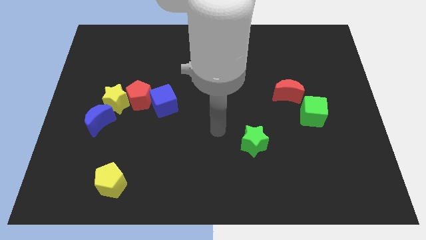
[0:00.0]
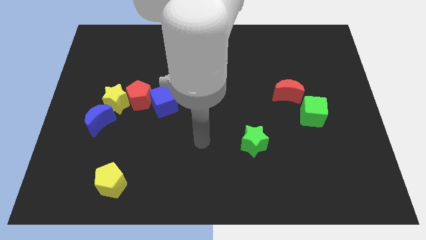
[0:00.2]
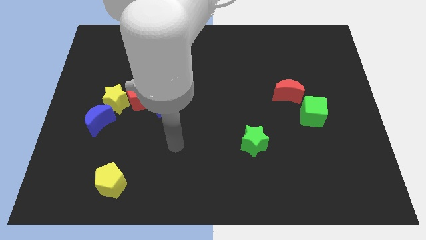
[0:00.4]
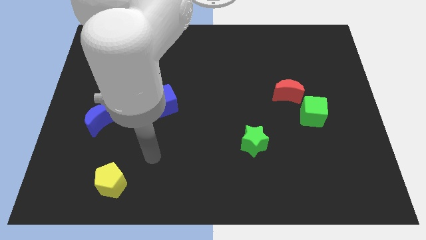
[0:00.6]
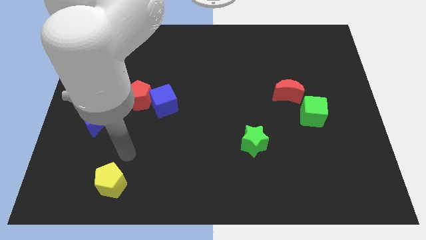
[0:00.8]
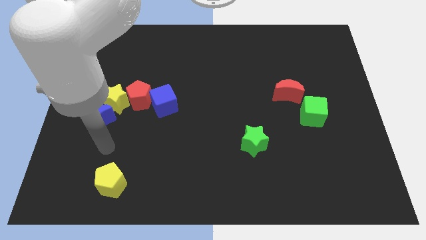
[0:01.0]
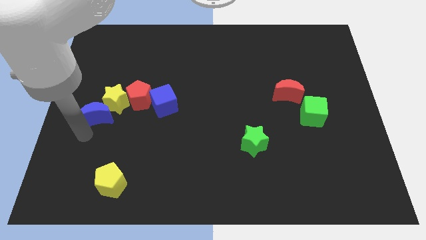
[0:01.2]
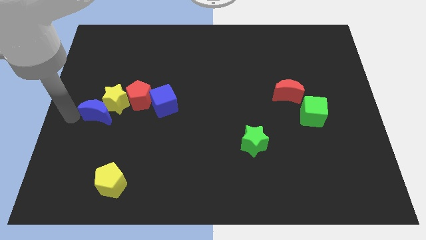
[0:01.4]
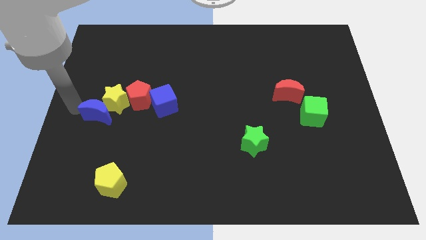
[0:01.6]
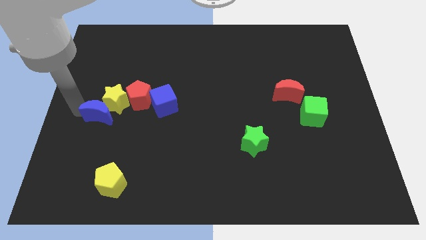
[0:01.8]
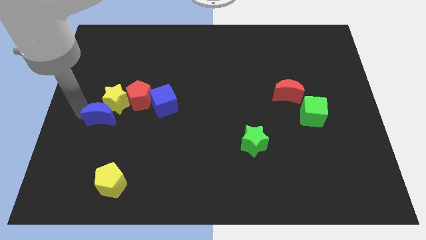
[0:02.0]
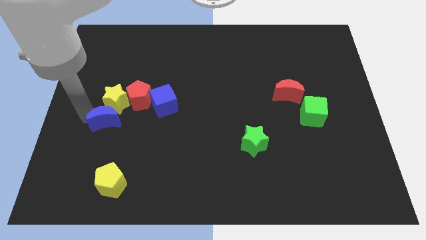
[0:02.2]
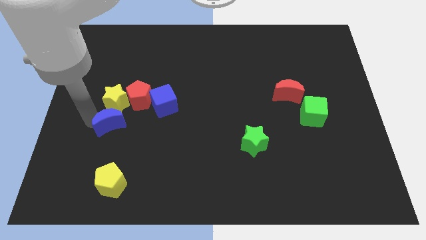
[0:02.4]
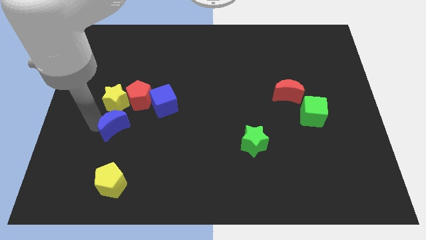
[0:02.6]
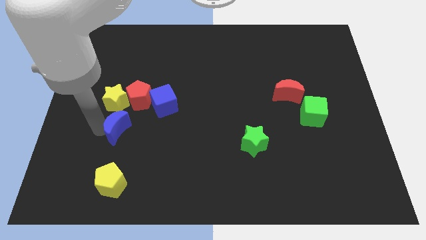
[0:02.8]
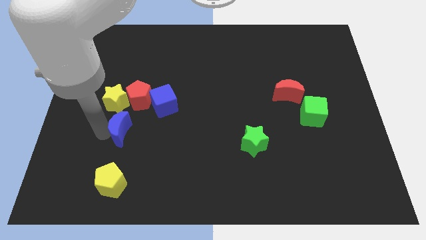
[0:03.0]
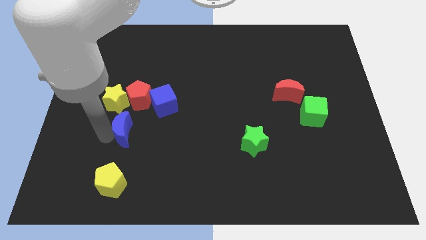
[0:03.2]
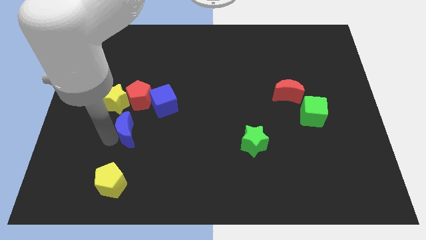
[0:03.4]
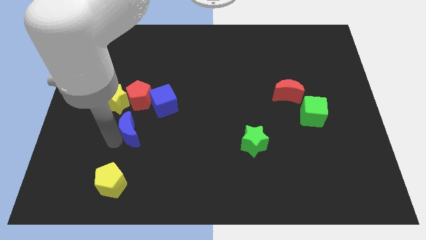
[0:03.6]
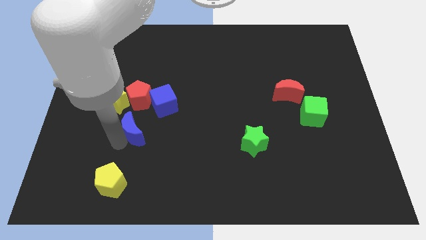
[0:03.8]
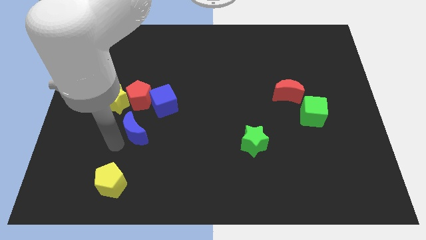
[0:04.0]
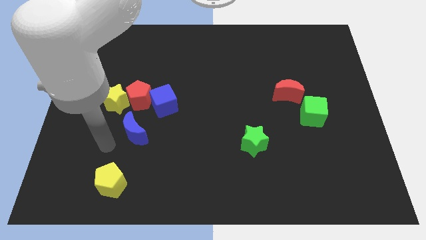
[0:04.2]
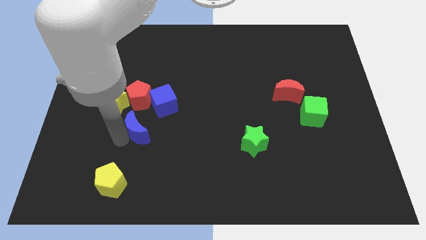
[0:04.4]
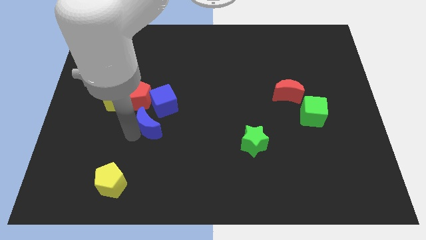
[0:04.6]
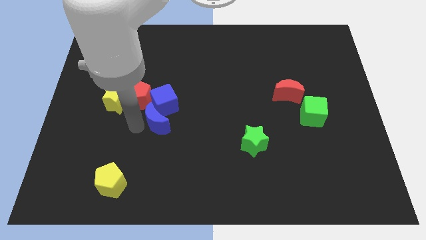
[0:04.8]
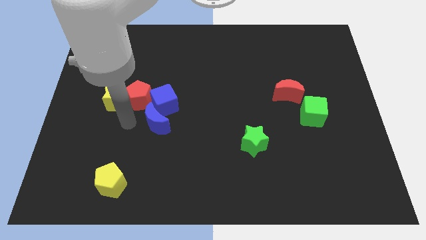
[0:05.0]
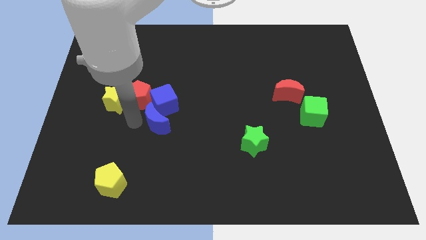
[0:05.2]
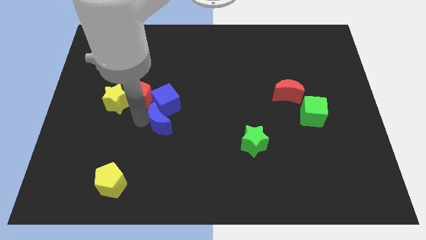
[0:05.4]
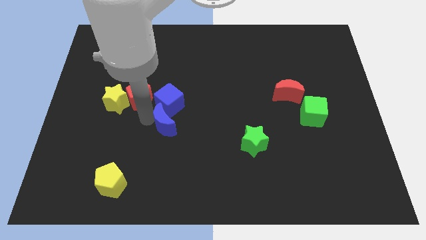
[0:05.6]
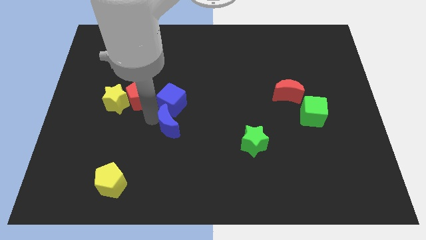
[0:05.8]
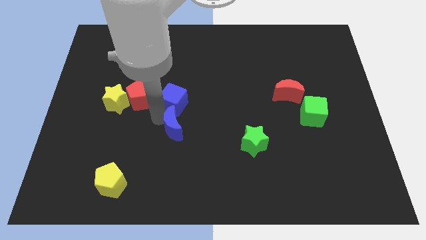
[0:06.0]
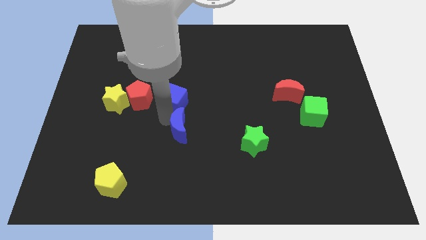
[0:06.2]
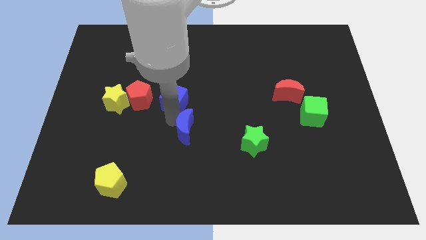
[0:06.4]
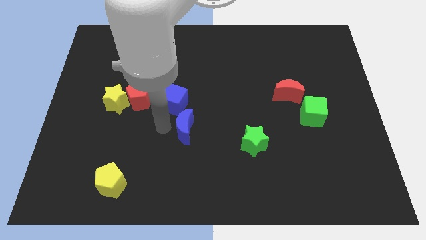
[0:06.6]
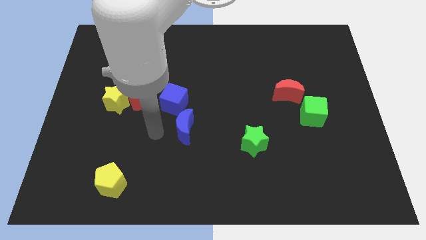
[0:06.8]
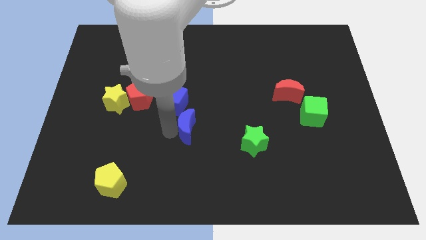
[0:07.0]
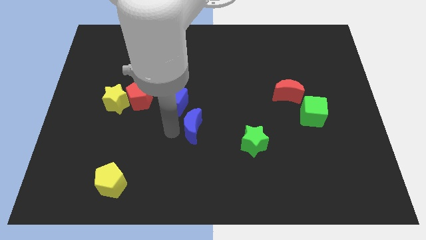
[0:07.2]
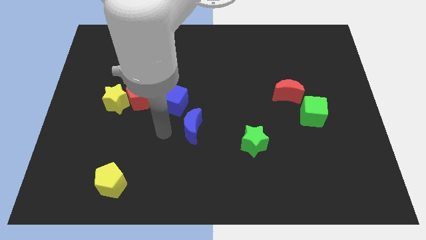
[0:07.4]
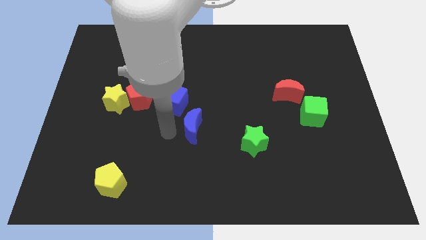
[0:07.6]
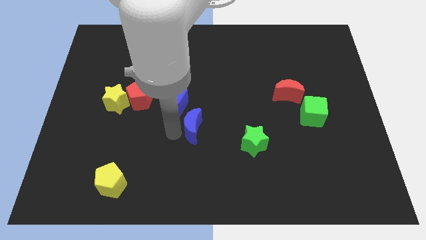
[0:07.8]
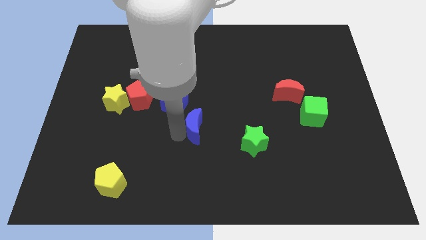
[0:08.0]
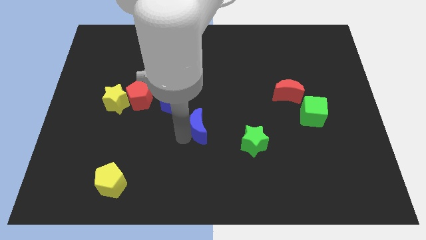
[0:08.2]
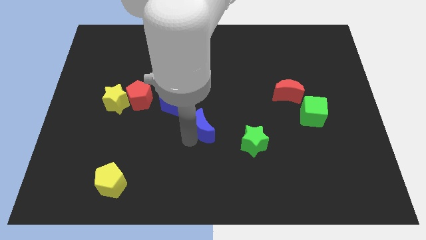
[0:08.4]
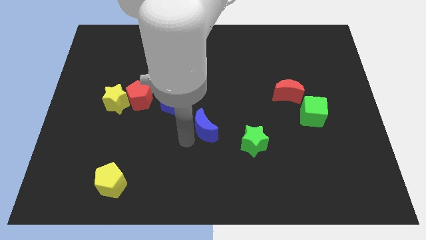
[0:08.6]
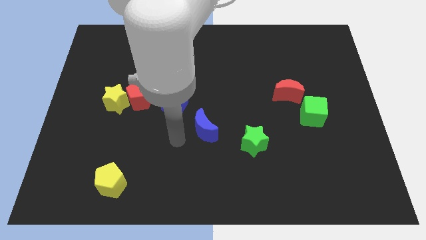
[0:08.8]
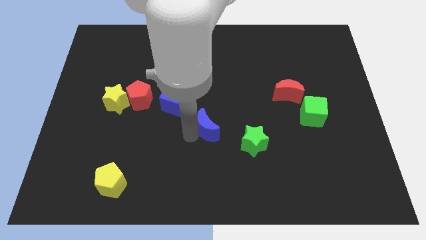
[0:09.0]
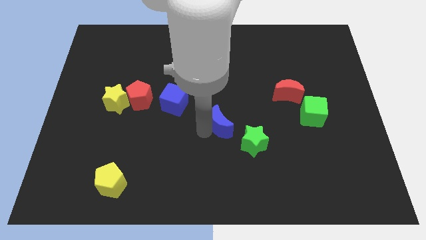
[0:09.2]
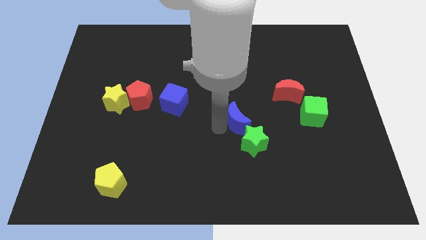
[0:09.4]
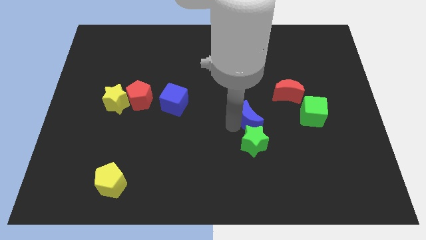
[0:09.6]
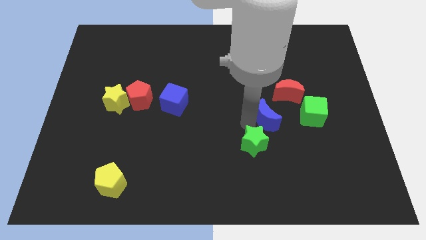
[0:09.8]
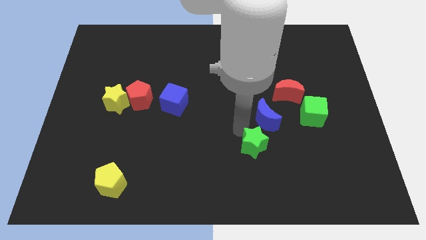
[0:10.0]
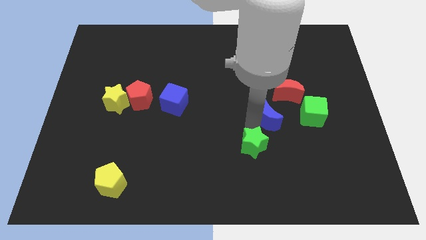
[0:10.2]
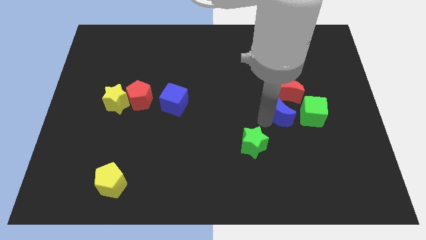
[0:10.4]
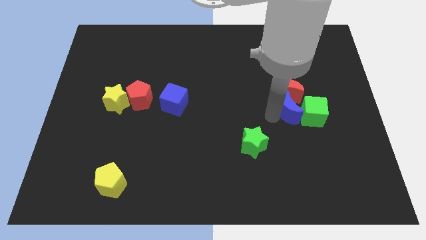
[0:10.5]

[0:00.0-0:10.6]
push the blue moon close to the green cube

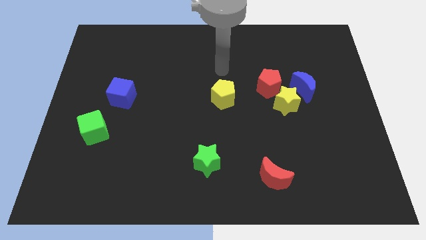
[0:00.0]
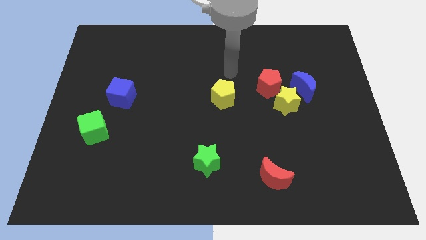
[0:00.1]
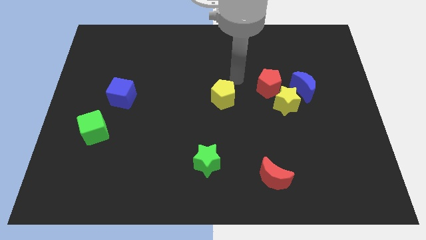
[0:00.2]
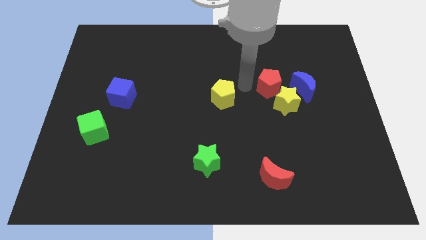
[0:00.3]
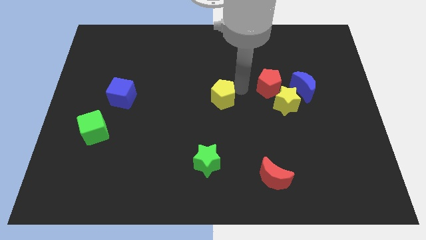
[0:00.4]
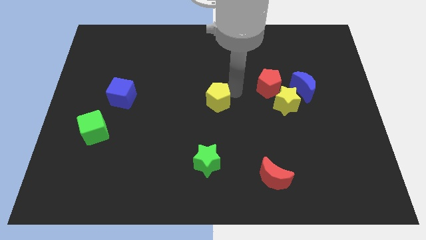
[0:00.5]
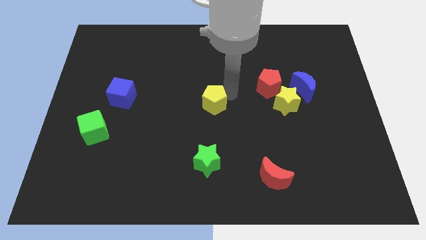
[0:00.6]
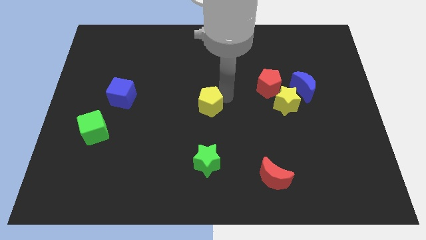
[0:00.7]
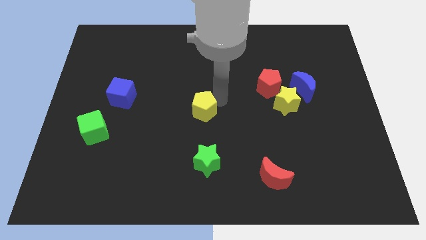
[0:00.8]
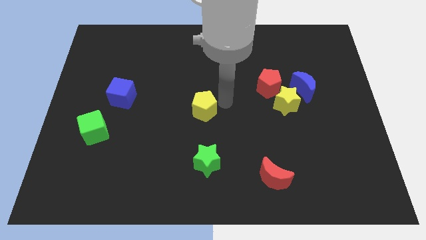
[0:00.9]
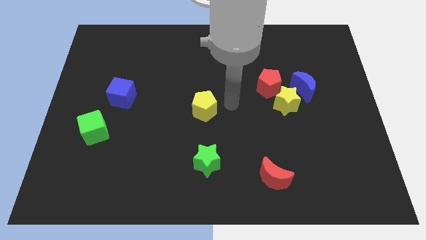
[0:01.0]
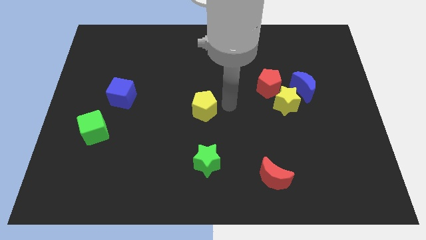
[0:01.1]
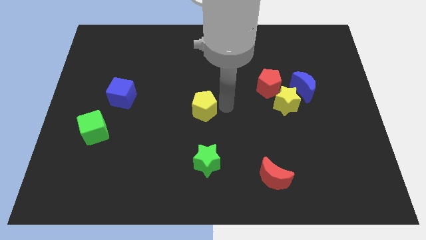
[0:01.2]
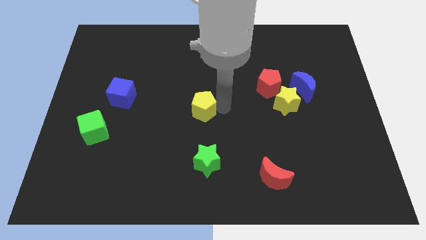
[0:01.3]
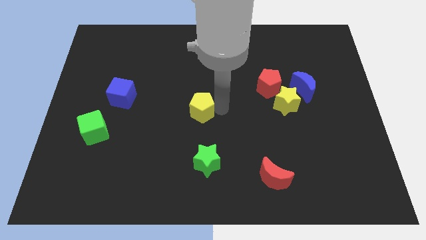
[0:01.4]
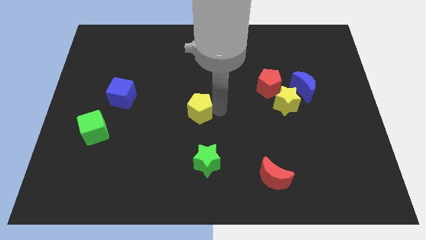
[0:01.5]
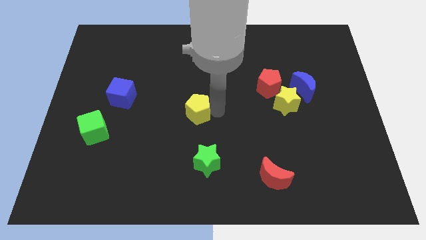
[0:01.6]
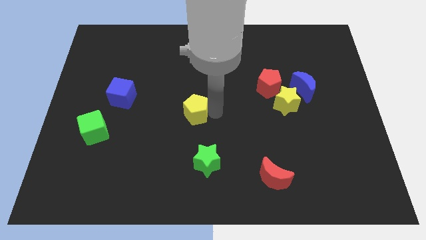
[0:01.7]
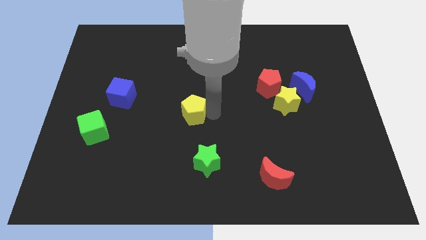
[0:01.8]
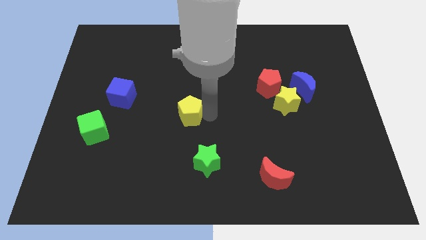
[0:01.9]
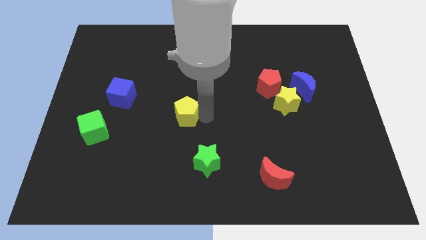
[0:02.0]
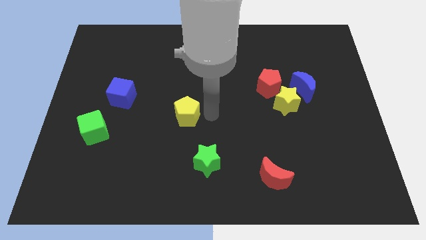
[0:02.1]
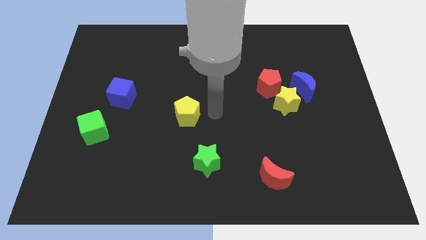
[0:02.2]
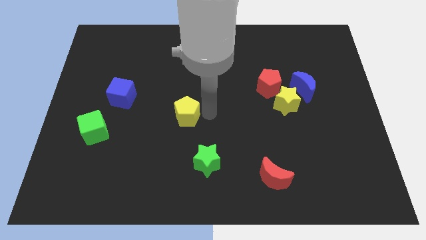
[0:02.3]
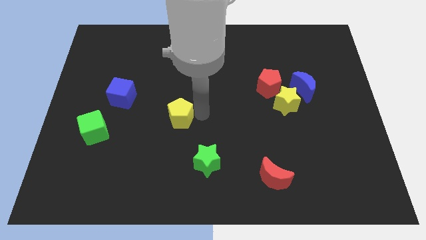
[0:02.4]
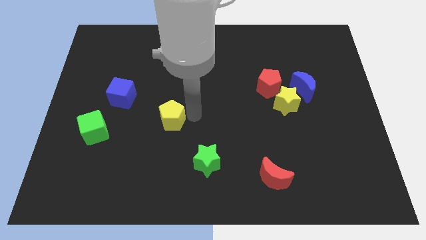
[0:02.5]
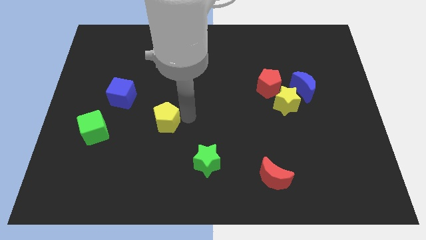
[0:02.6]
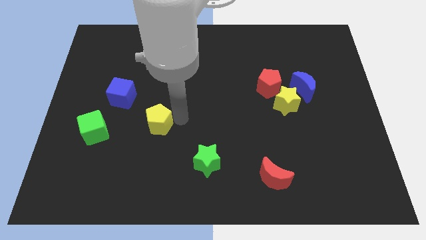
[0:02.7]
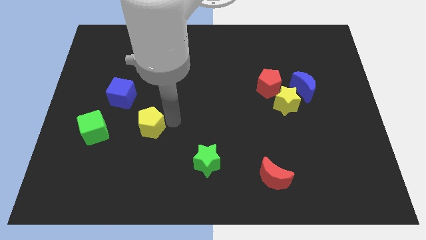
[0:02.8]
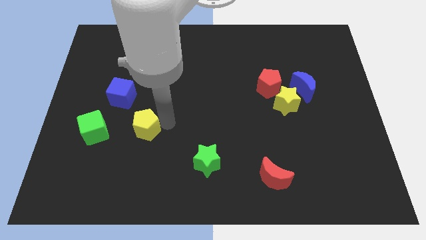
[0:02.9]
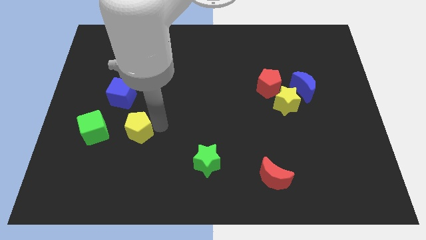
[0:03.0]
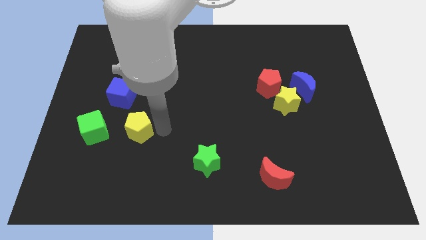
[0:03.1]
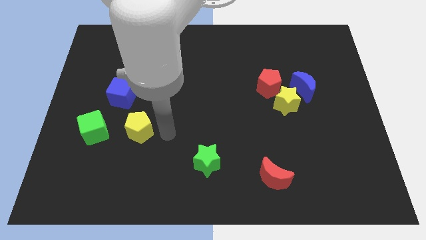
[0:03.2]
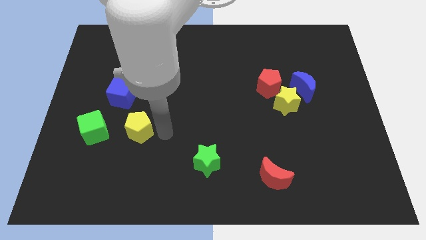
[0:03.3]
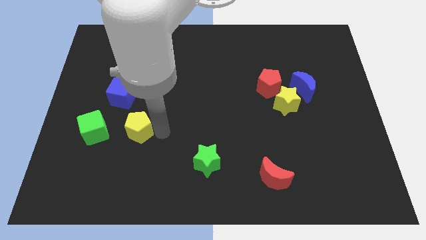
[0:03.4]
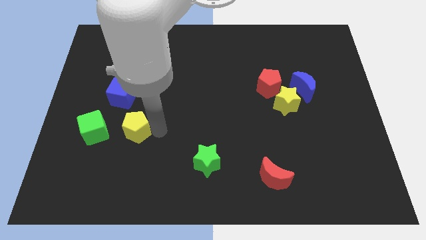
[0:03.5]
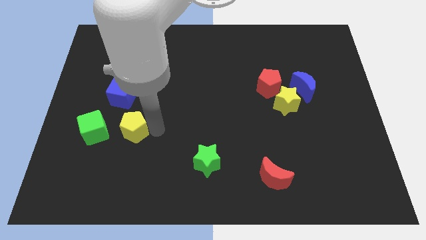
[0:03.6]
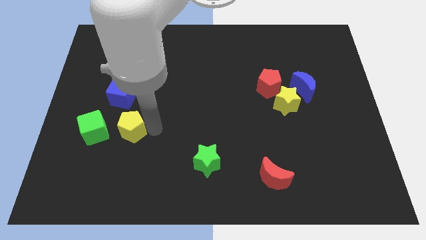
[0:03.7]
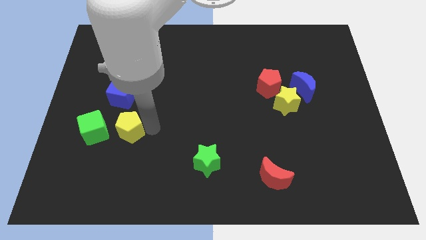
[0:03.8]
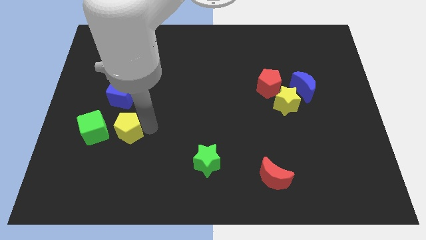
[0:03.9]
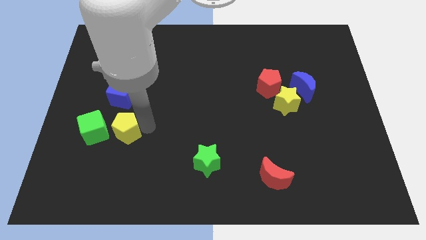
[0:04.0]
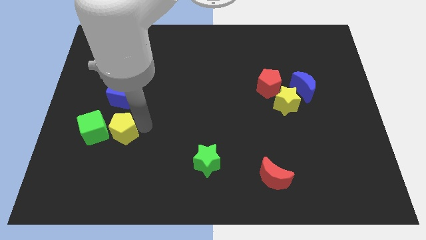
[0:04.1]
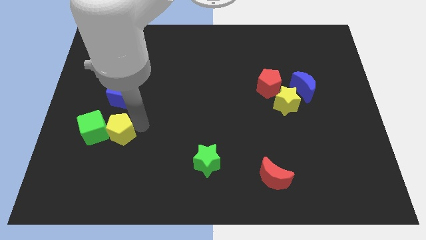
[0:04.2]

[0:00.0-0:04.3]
put the yellow pentagon to the green cube
